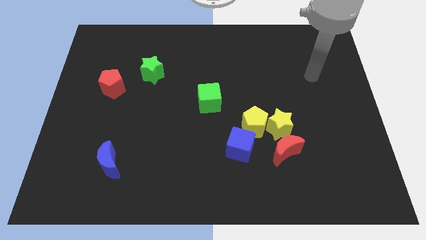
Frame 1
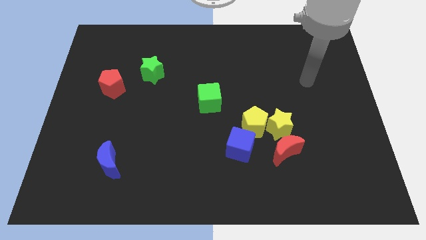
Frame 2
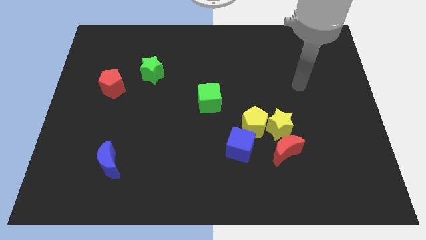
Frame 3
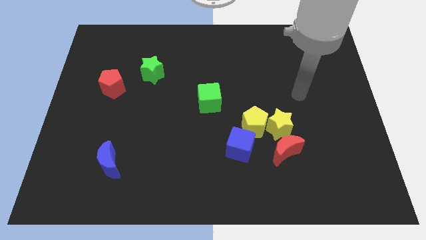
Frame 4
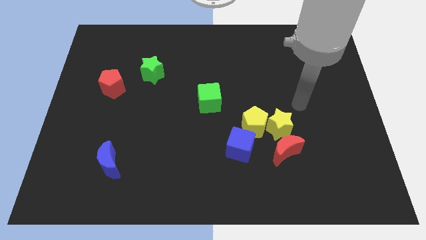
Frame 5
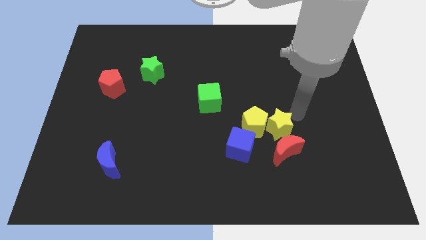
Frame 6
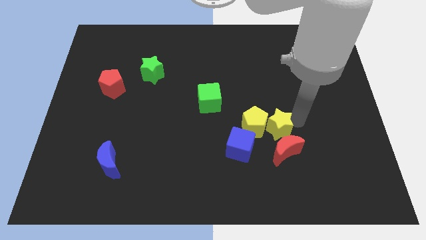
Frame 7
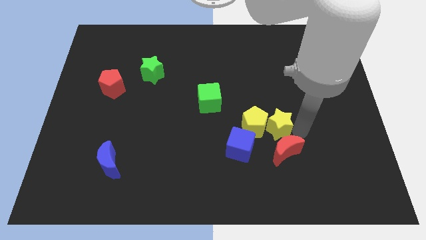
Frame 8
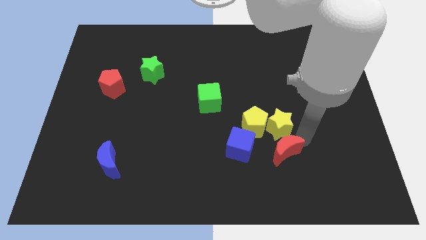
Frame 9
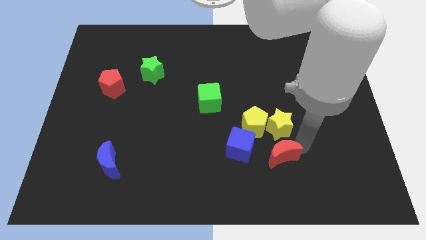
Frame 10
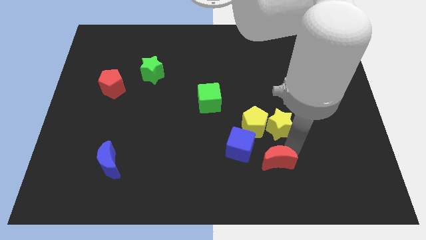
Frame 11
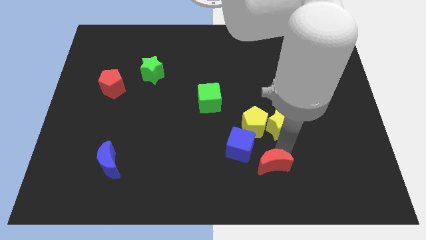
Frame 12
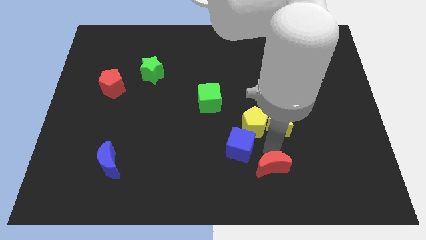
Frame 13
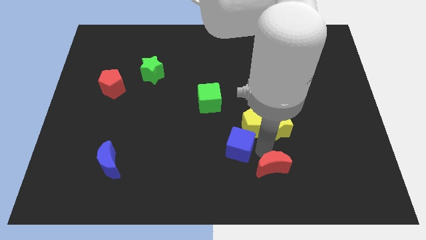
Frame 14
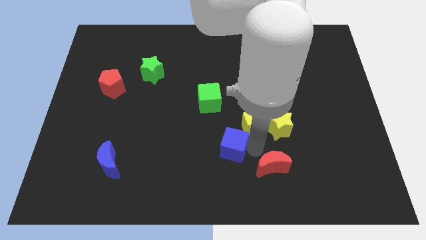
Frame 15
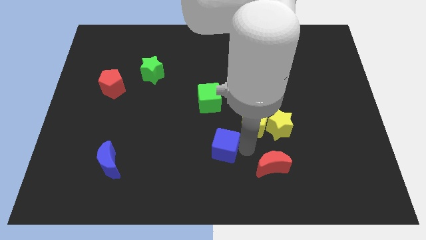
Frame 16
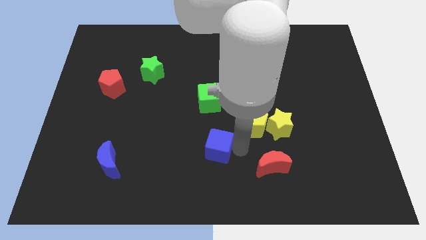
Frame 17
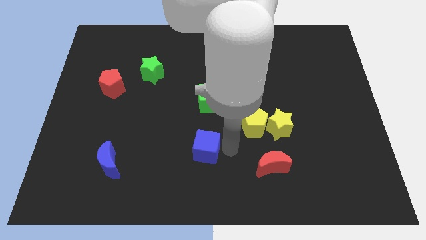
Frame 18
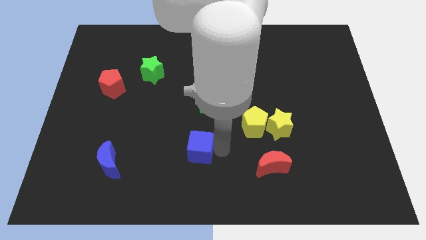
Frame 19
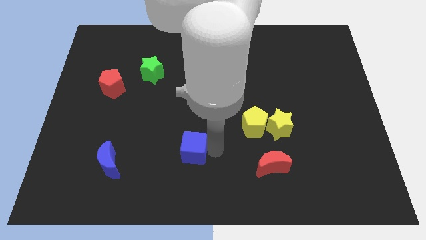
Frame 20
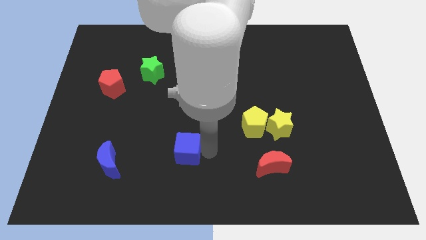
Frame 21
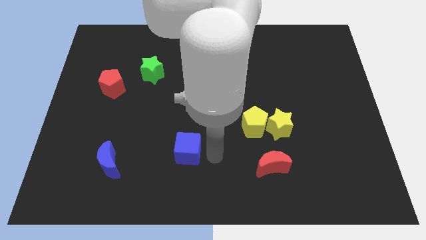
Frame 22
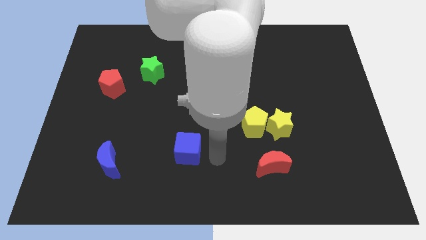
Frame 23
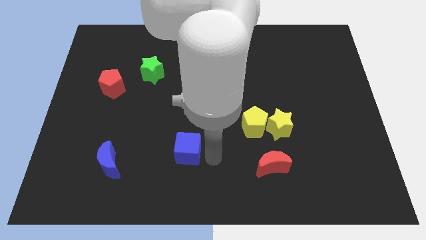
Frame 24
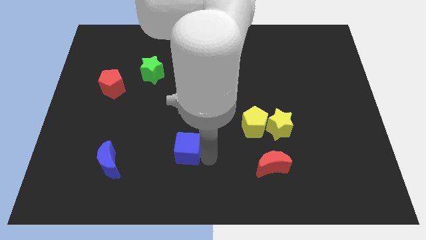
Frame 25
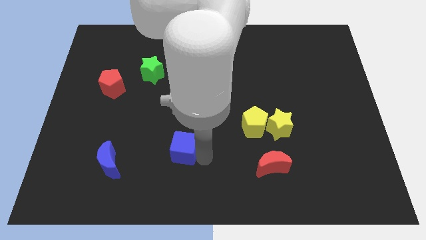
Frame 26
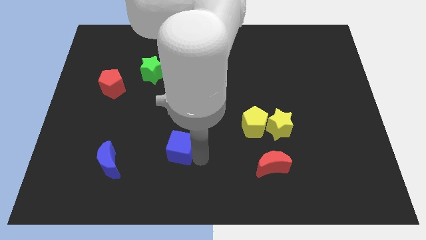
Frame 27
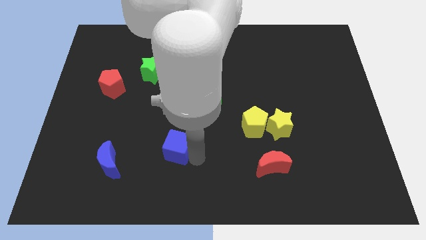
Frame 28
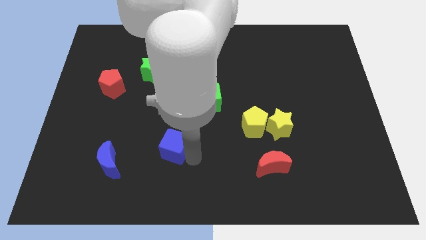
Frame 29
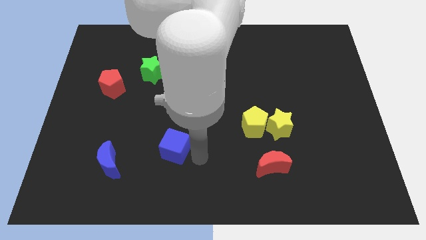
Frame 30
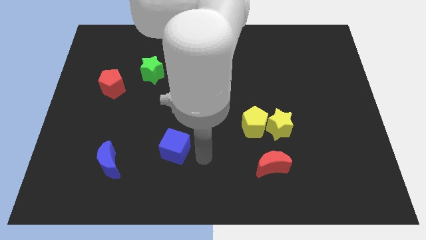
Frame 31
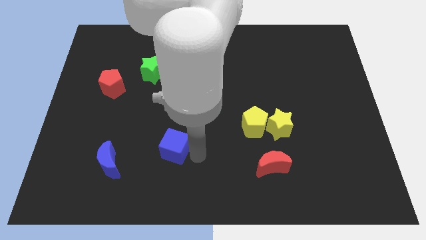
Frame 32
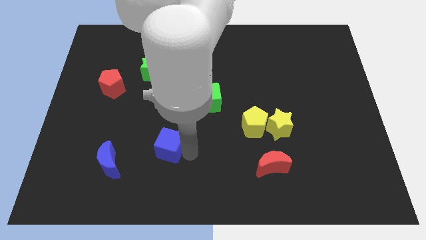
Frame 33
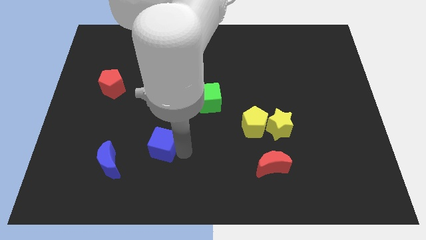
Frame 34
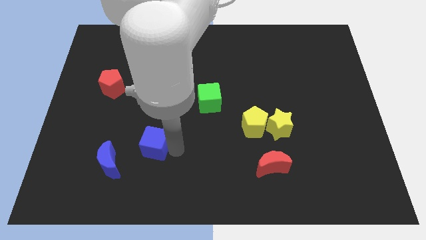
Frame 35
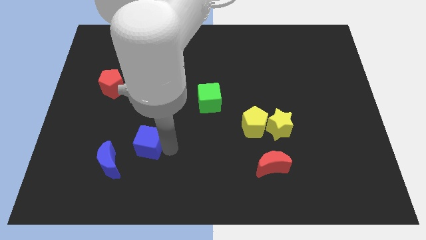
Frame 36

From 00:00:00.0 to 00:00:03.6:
push the blue cube left

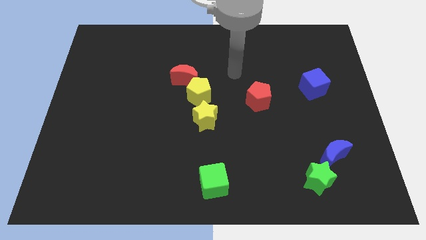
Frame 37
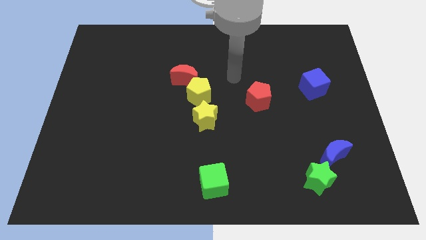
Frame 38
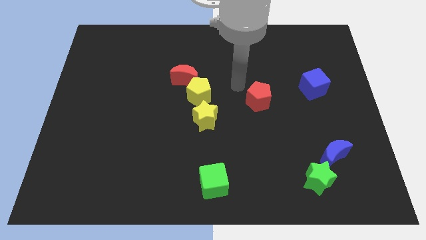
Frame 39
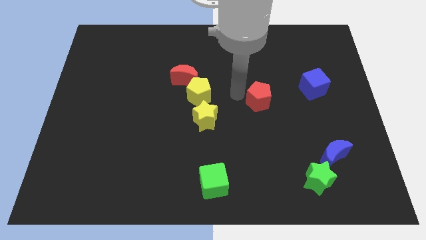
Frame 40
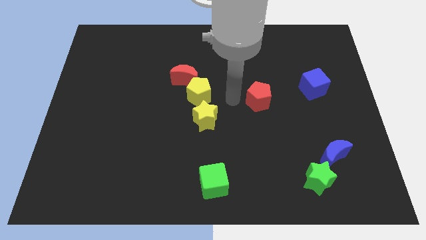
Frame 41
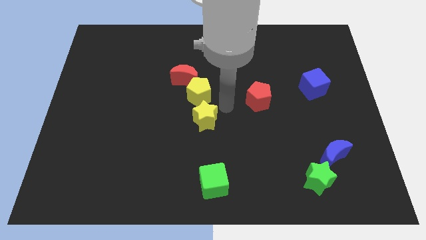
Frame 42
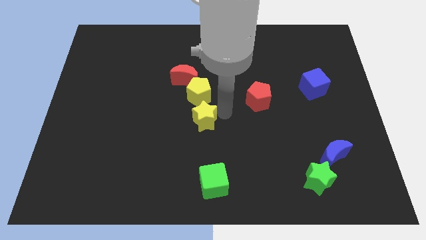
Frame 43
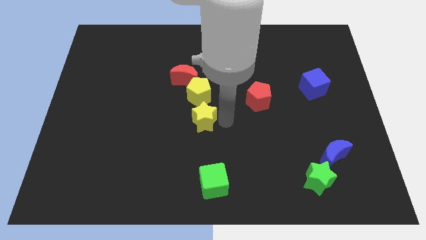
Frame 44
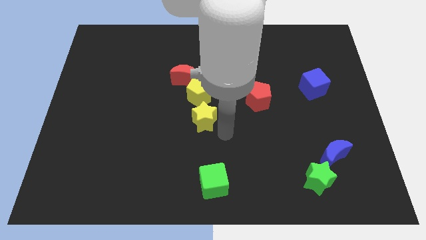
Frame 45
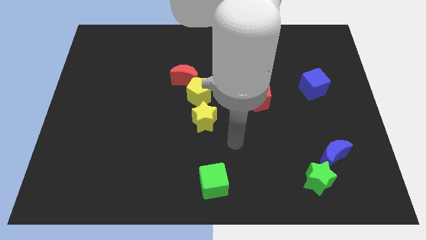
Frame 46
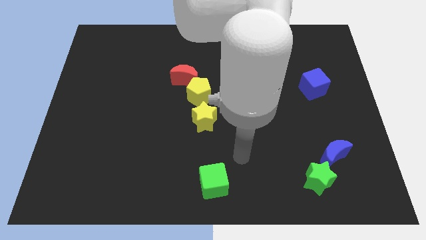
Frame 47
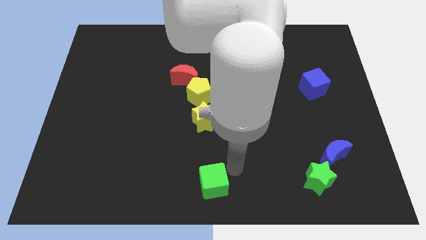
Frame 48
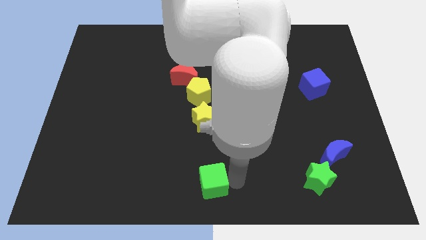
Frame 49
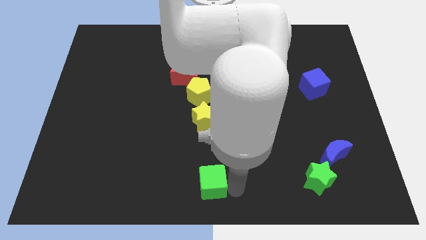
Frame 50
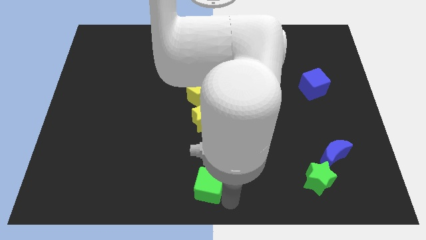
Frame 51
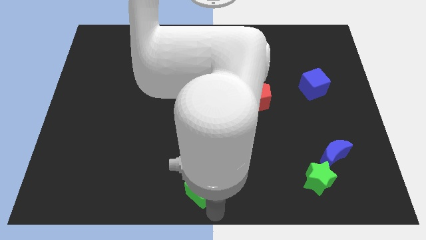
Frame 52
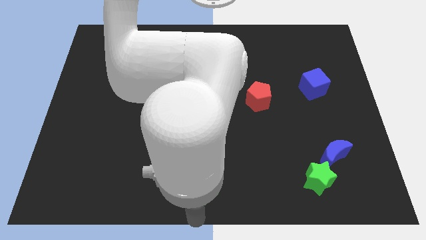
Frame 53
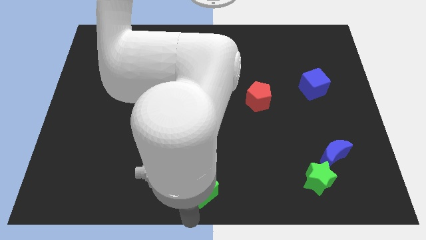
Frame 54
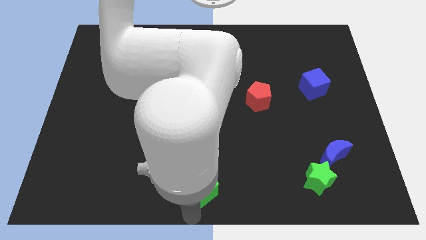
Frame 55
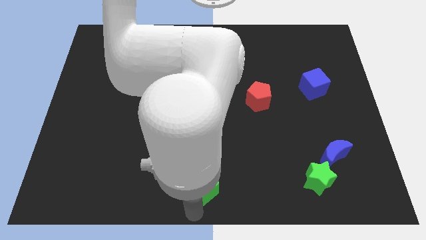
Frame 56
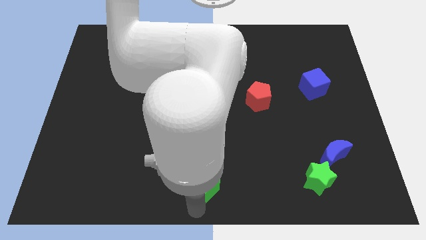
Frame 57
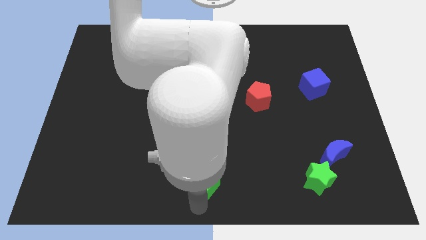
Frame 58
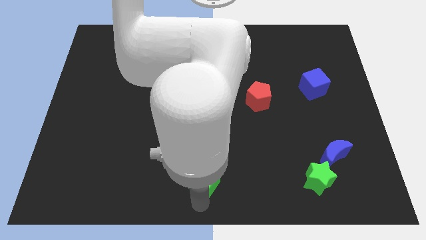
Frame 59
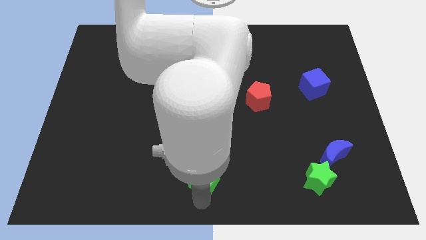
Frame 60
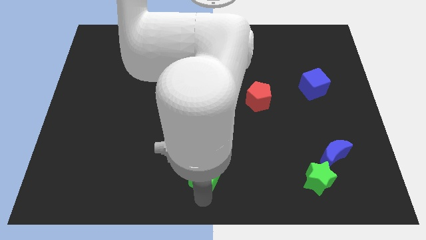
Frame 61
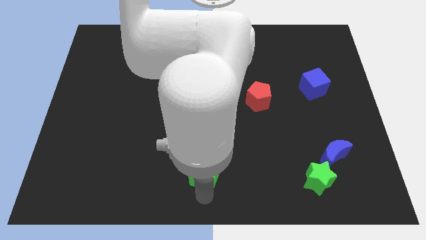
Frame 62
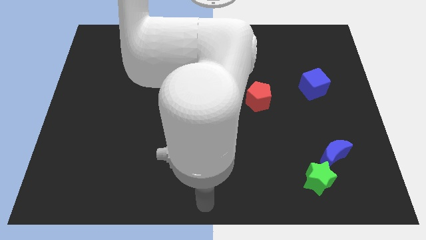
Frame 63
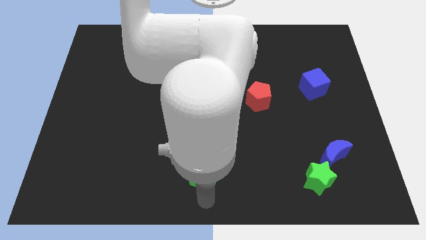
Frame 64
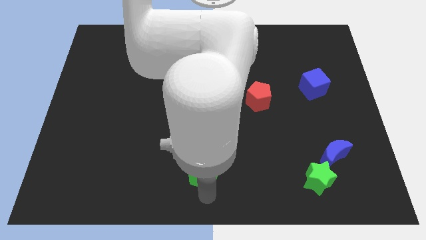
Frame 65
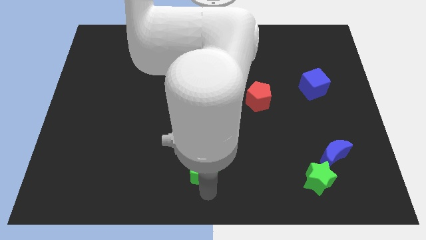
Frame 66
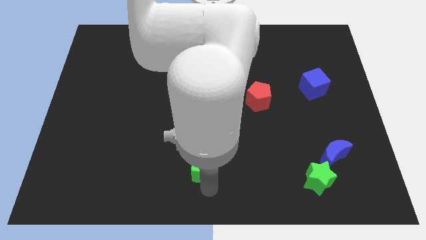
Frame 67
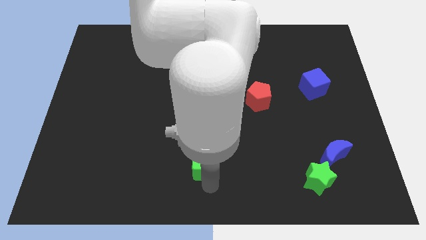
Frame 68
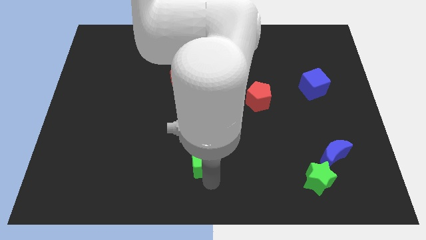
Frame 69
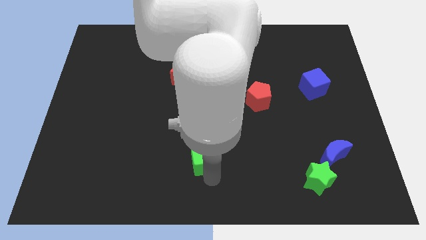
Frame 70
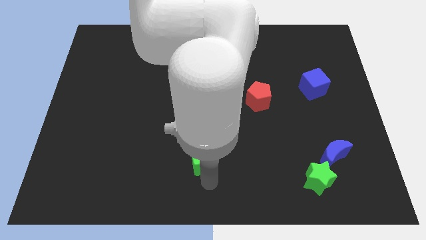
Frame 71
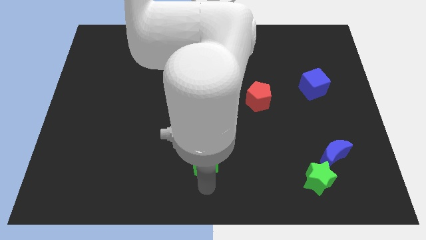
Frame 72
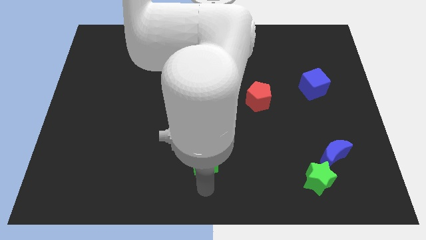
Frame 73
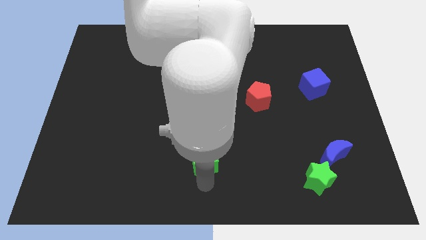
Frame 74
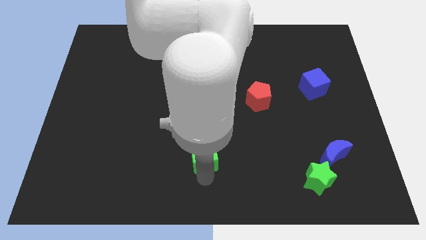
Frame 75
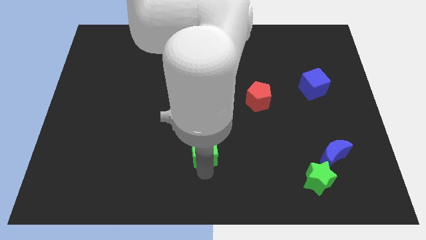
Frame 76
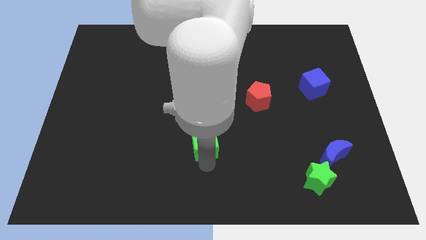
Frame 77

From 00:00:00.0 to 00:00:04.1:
slightly push the green cube up and left diagonally

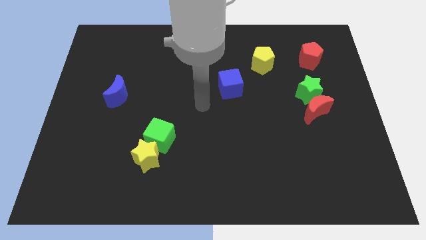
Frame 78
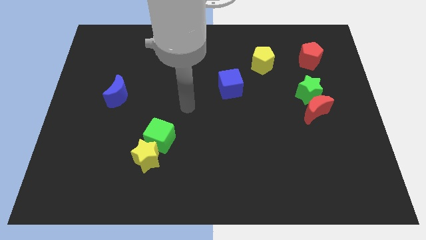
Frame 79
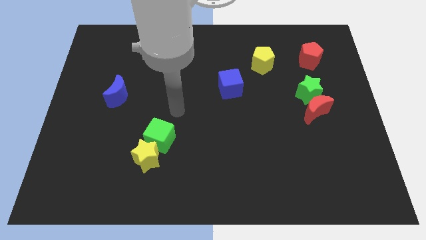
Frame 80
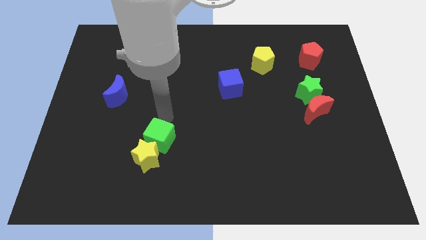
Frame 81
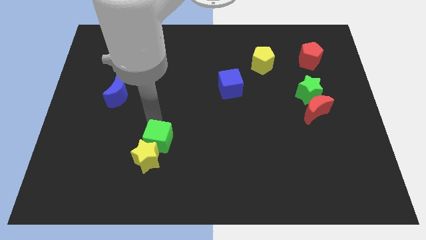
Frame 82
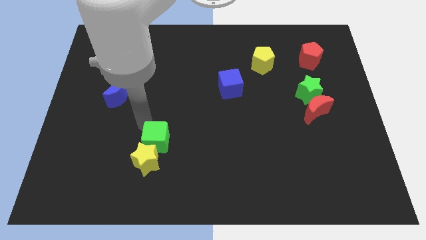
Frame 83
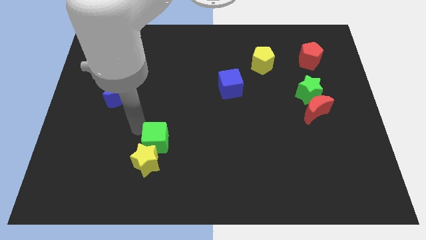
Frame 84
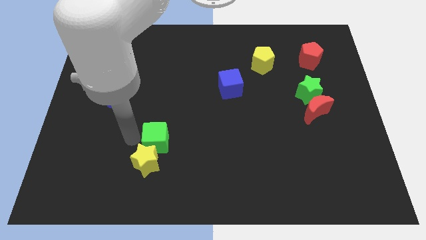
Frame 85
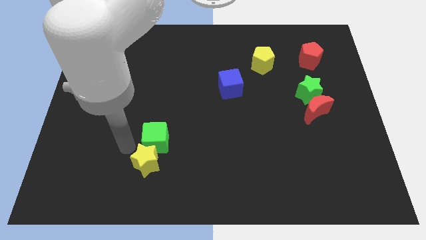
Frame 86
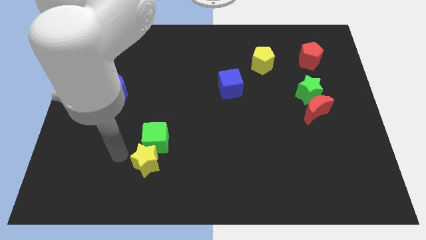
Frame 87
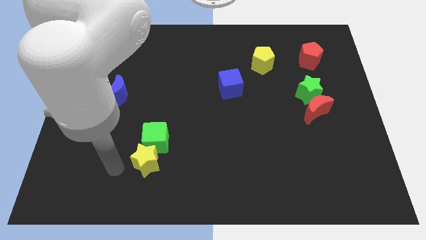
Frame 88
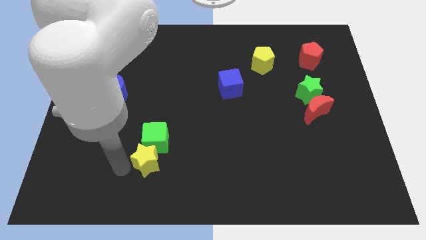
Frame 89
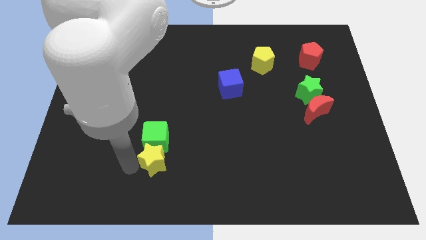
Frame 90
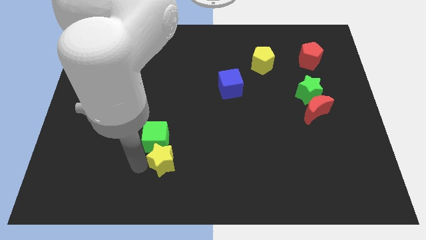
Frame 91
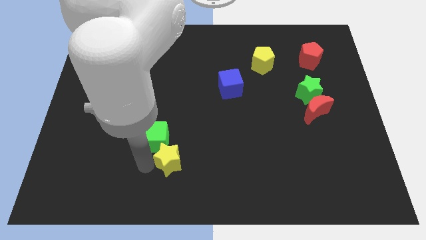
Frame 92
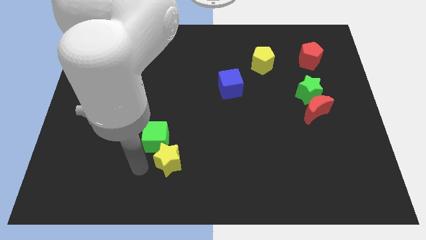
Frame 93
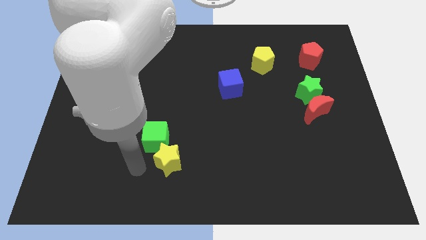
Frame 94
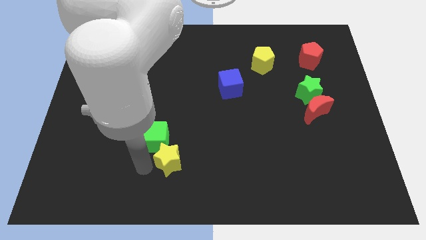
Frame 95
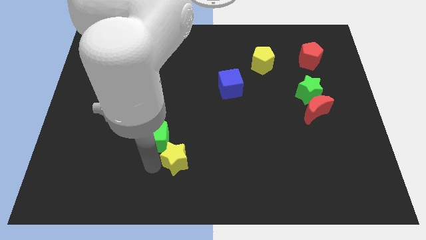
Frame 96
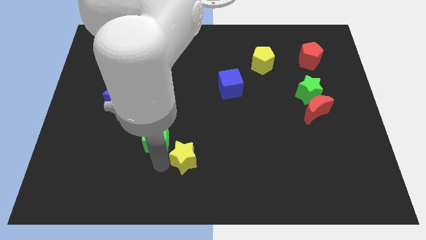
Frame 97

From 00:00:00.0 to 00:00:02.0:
move the yellow star to the right a bit
